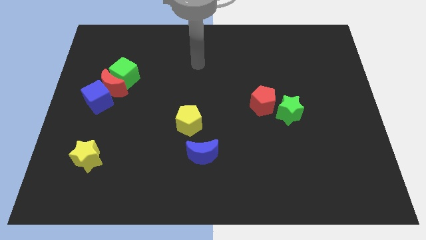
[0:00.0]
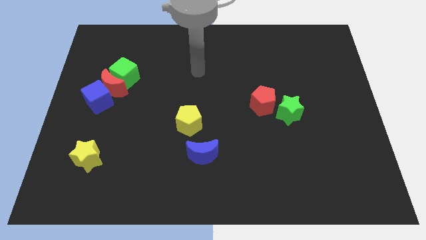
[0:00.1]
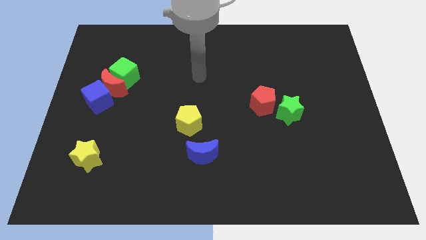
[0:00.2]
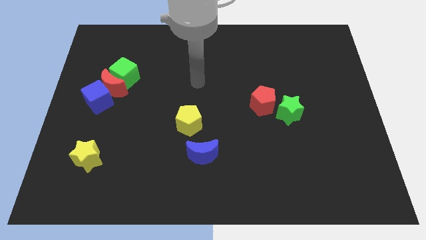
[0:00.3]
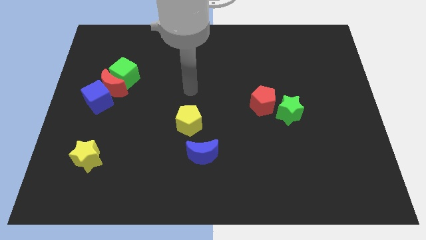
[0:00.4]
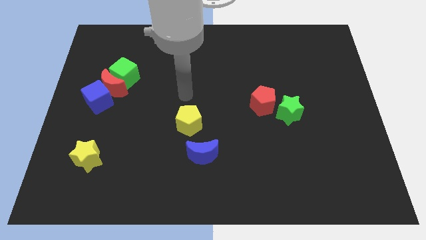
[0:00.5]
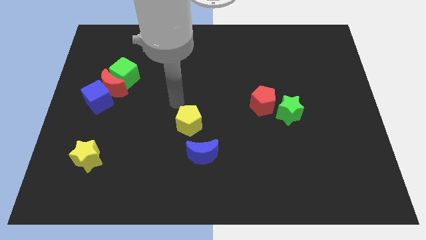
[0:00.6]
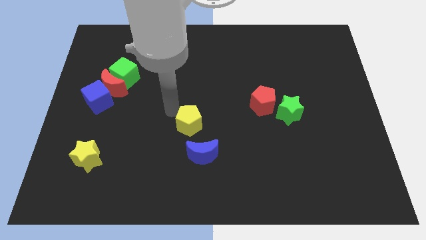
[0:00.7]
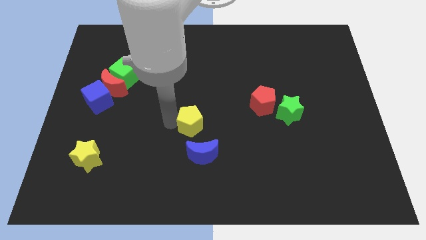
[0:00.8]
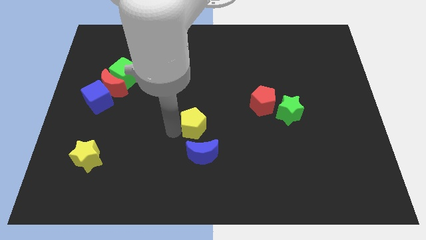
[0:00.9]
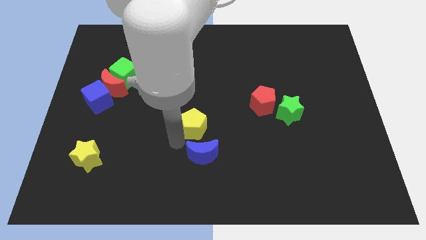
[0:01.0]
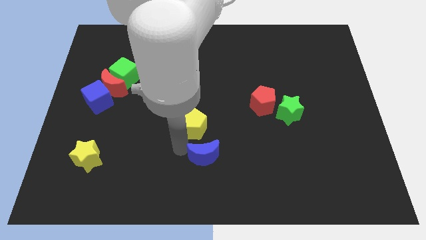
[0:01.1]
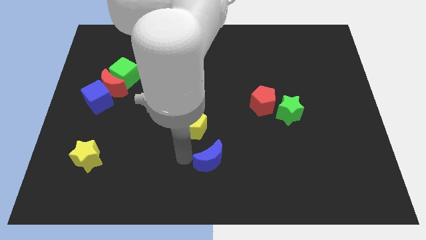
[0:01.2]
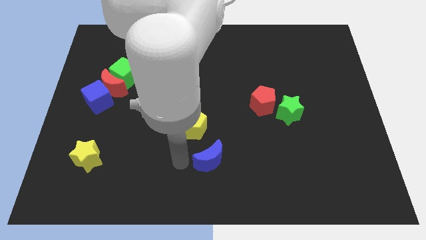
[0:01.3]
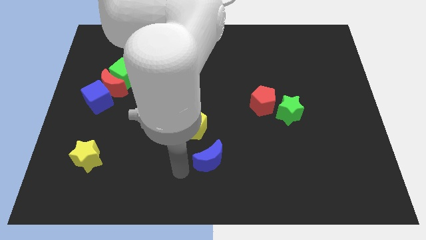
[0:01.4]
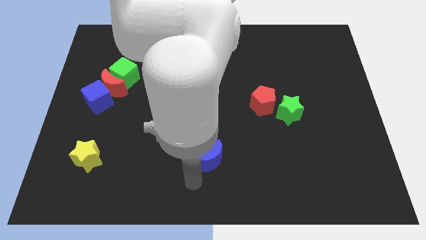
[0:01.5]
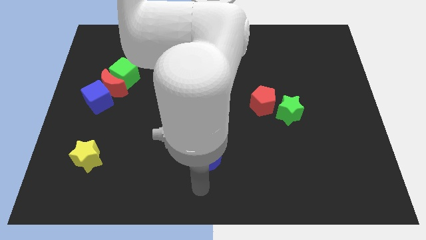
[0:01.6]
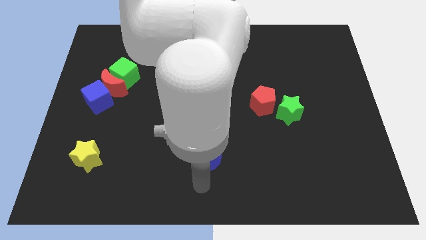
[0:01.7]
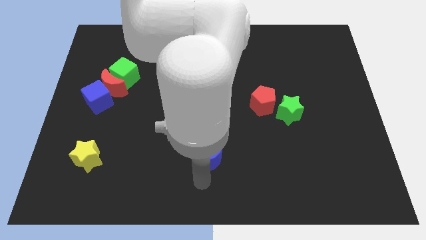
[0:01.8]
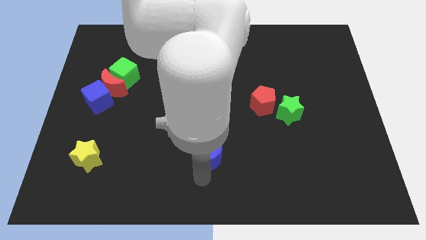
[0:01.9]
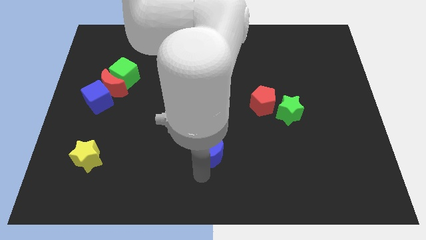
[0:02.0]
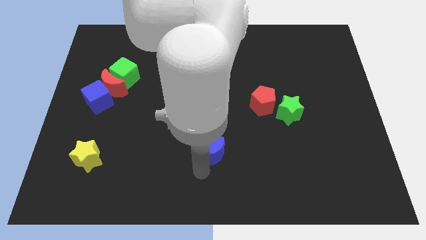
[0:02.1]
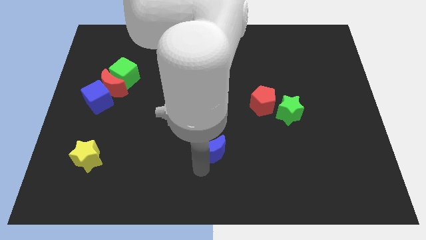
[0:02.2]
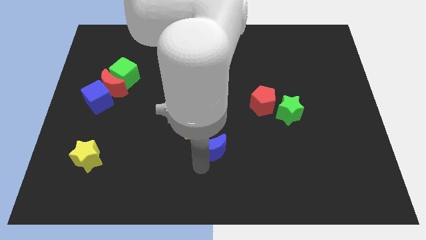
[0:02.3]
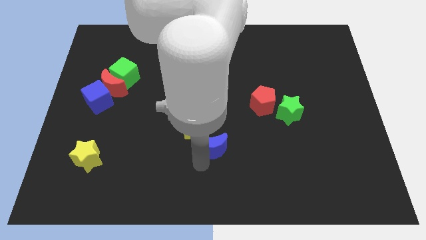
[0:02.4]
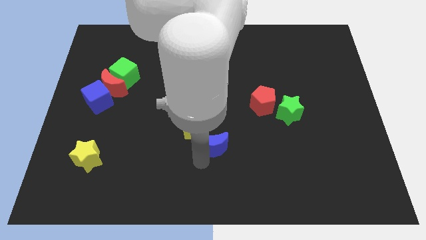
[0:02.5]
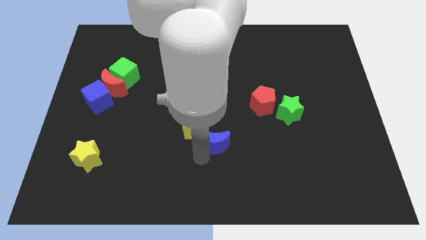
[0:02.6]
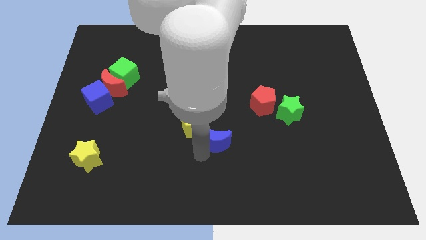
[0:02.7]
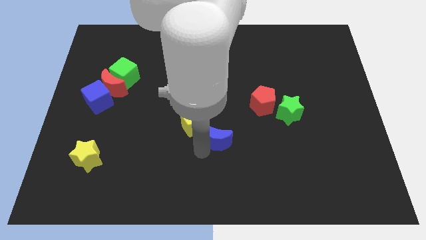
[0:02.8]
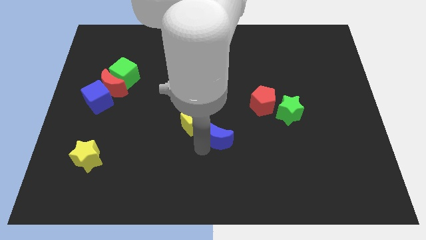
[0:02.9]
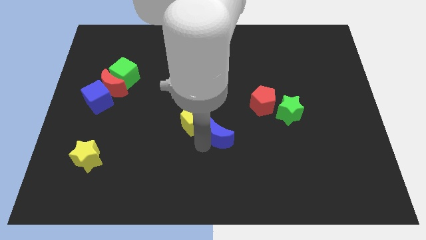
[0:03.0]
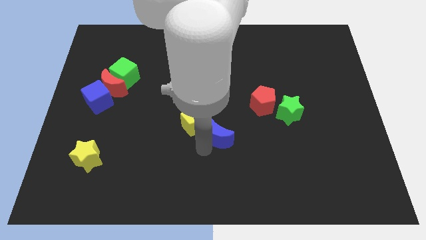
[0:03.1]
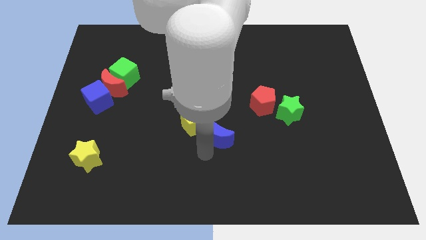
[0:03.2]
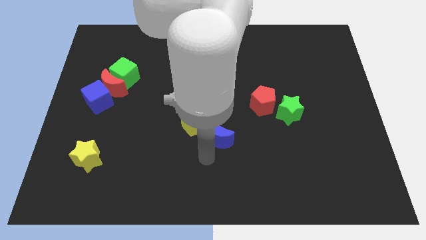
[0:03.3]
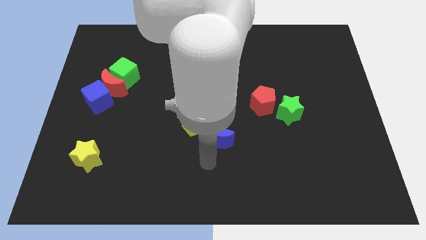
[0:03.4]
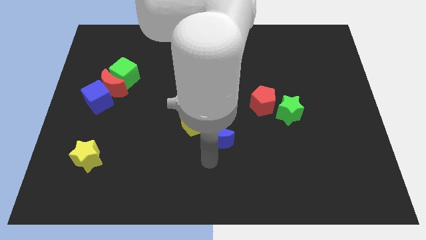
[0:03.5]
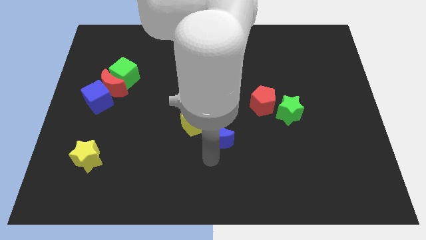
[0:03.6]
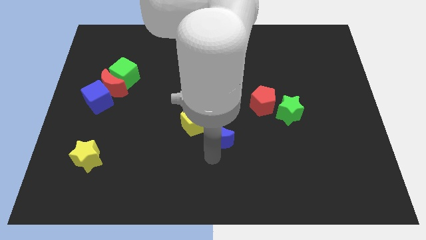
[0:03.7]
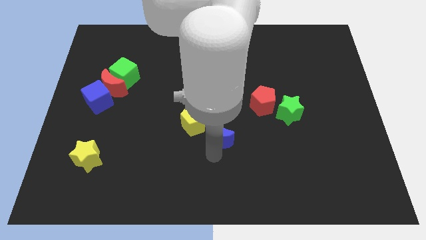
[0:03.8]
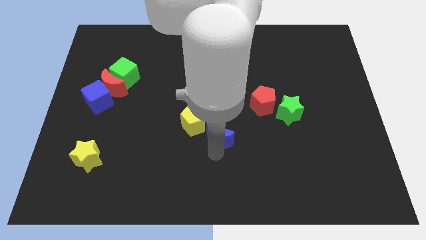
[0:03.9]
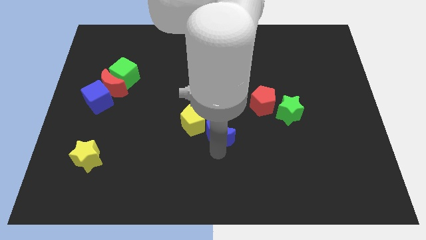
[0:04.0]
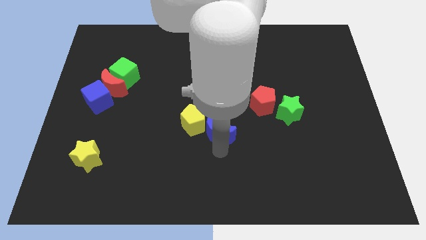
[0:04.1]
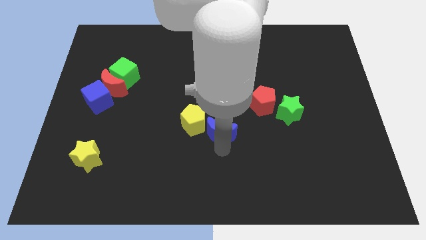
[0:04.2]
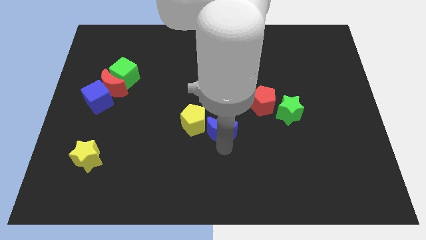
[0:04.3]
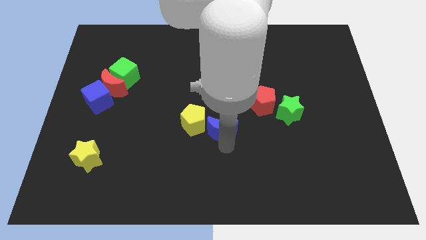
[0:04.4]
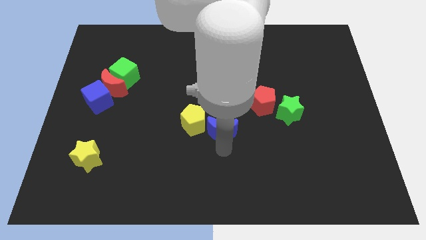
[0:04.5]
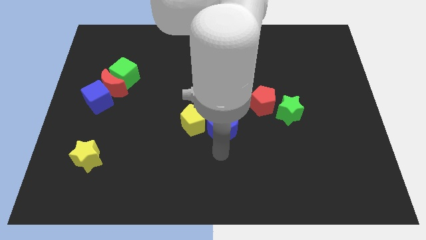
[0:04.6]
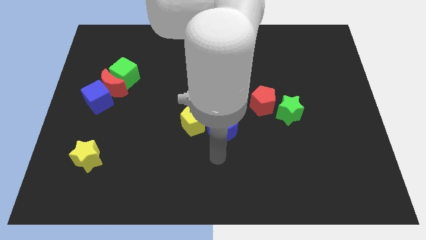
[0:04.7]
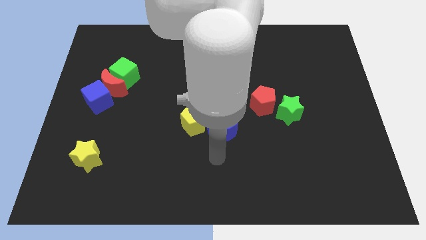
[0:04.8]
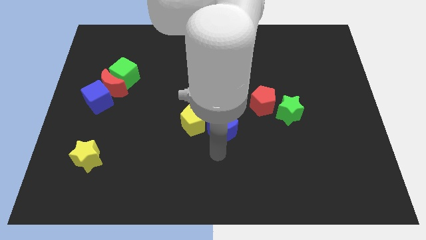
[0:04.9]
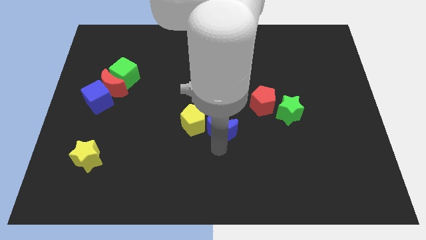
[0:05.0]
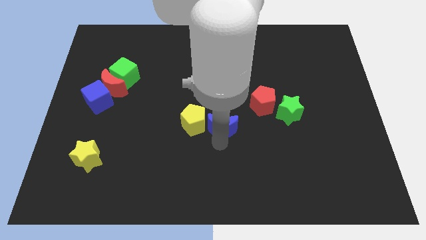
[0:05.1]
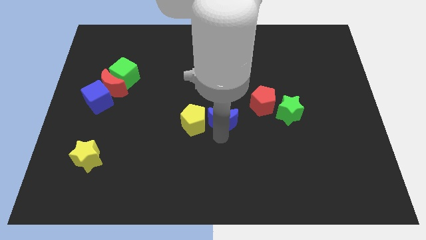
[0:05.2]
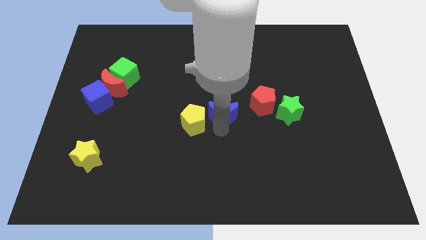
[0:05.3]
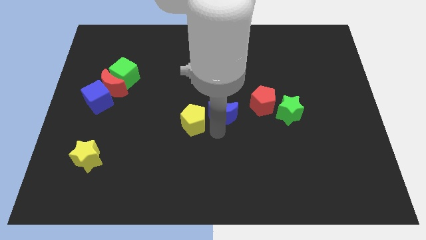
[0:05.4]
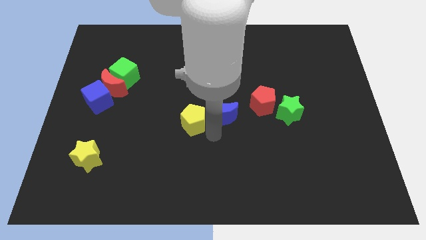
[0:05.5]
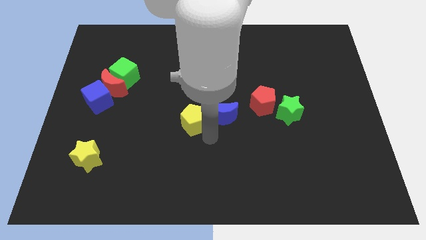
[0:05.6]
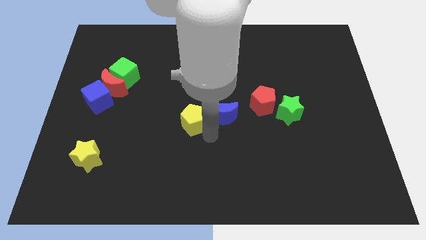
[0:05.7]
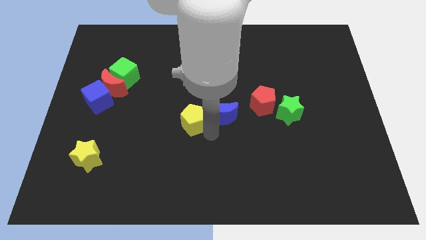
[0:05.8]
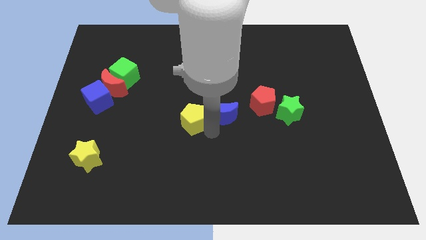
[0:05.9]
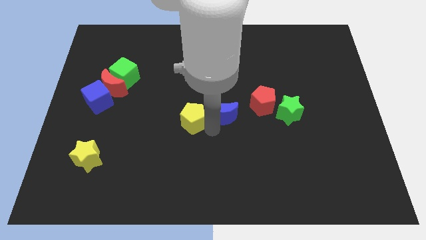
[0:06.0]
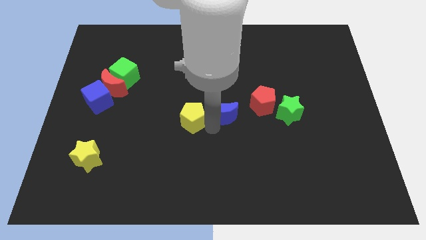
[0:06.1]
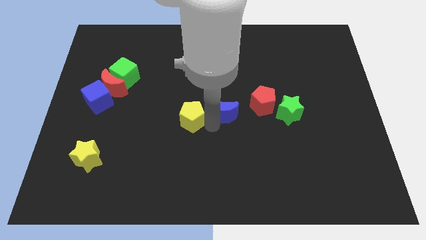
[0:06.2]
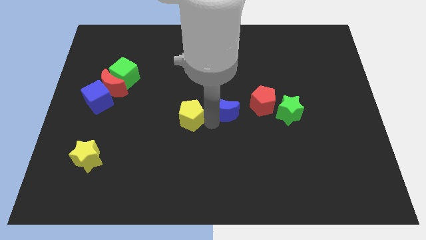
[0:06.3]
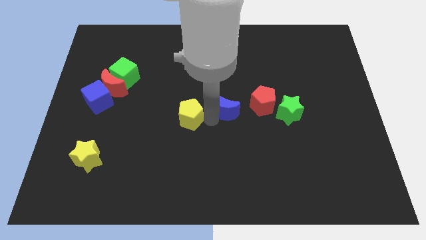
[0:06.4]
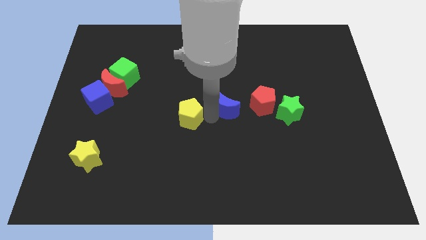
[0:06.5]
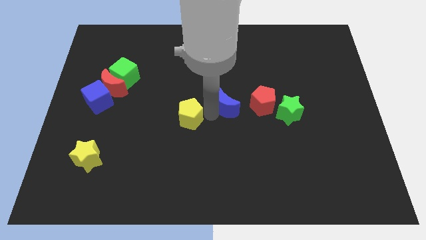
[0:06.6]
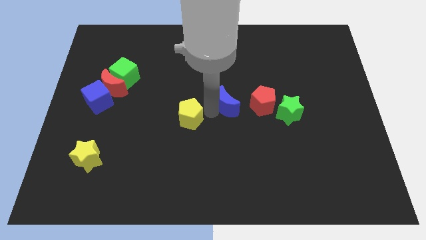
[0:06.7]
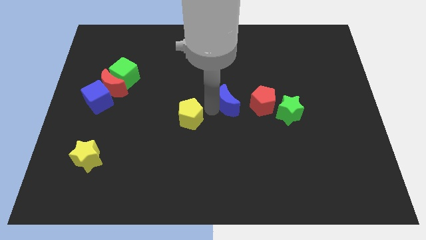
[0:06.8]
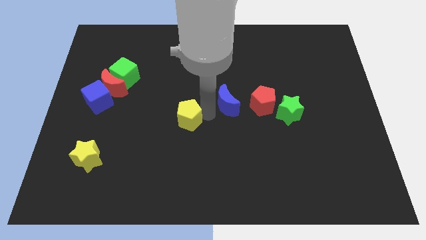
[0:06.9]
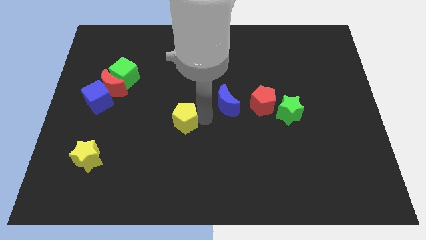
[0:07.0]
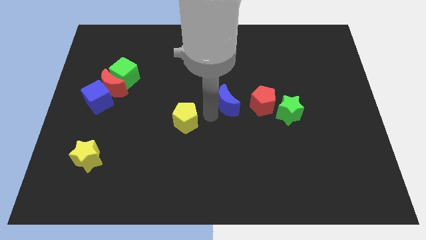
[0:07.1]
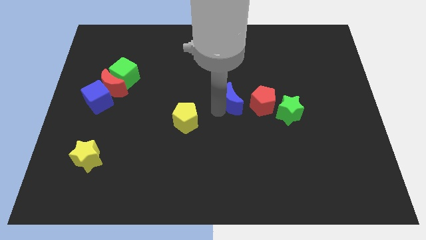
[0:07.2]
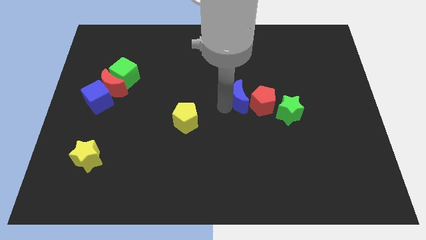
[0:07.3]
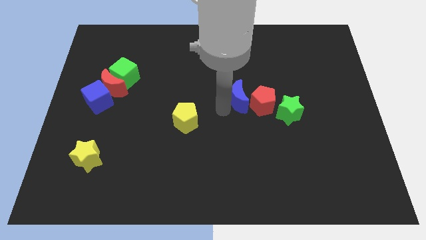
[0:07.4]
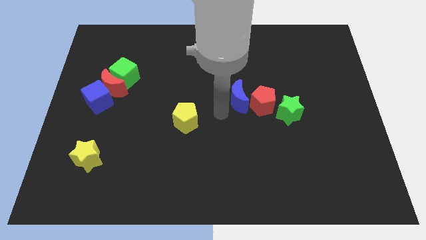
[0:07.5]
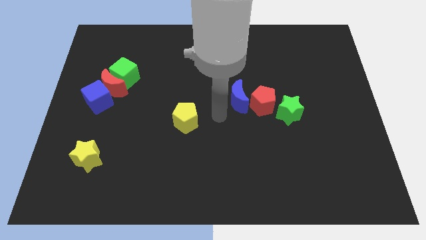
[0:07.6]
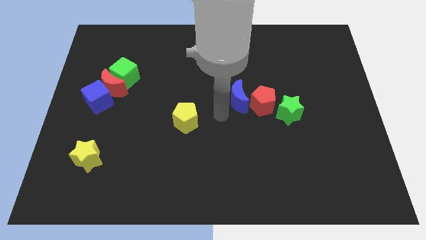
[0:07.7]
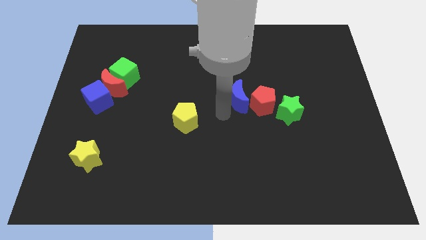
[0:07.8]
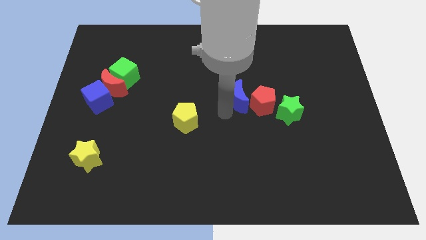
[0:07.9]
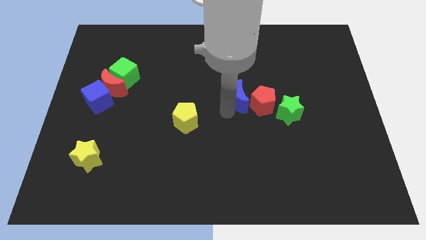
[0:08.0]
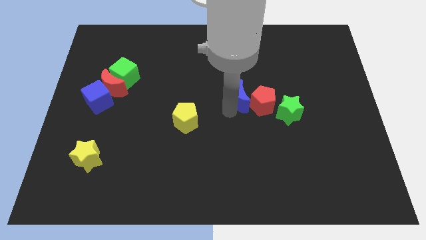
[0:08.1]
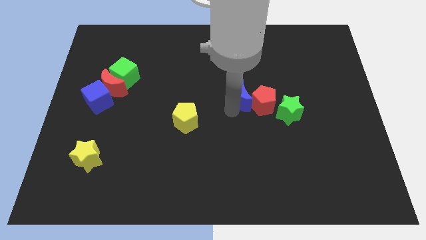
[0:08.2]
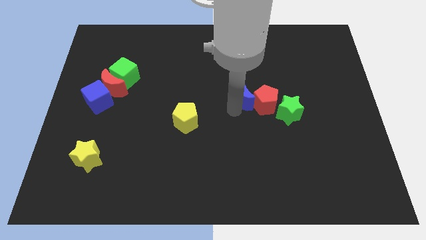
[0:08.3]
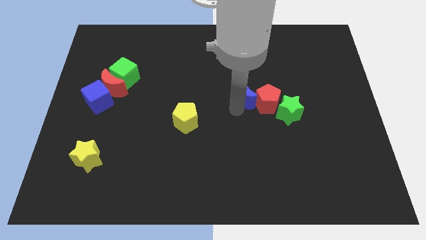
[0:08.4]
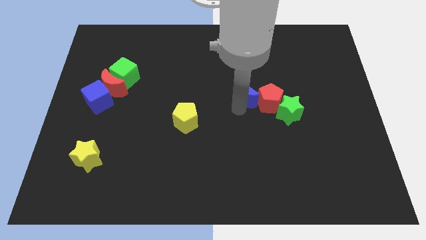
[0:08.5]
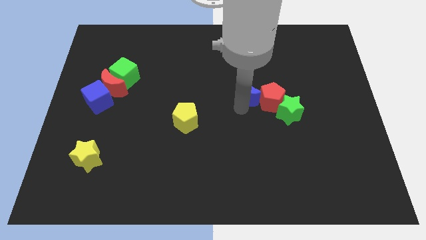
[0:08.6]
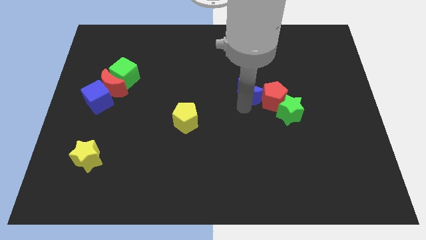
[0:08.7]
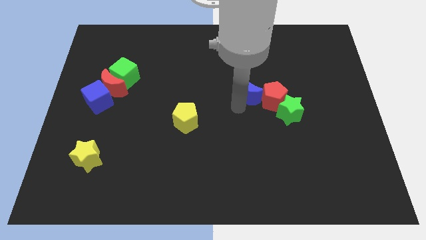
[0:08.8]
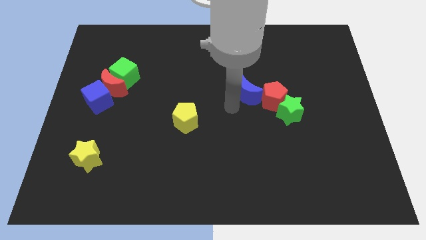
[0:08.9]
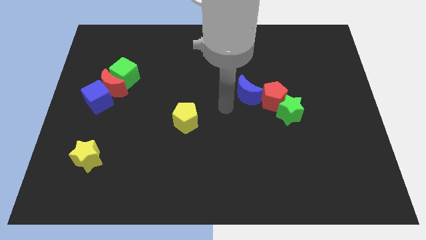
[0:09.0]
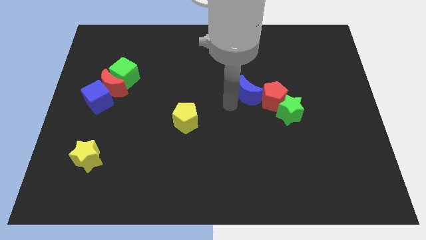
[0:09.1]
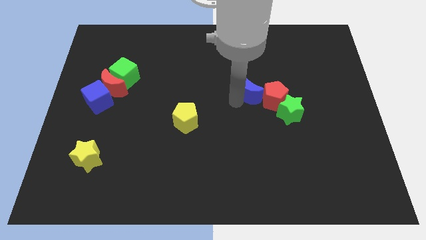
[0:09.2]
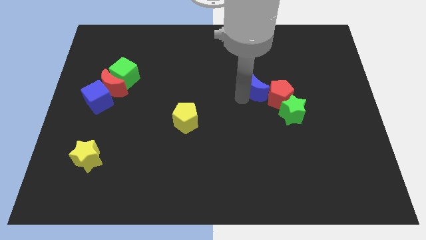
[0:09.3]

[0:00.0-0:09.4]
slide the blue moon upwards and then to the right
